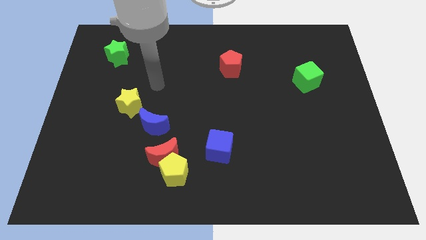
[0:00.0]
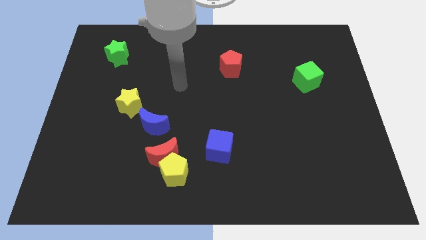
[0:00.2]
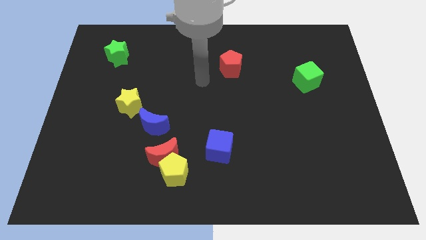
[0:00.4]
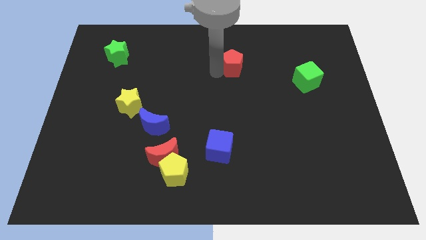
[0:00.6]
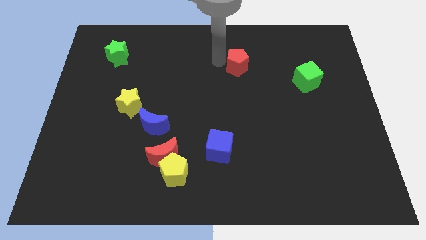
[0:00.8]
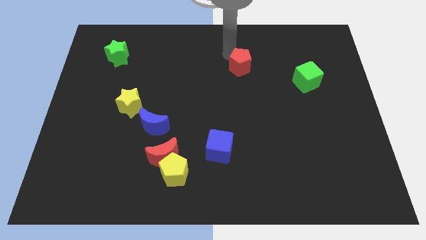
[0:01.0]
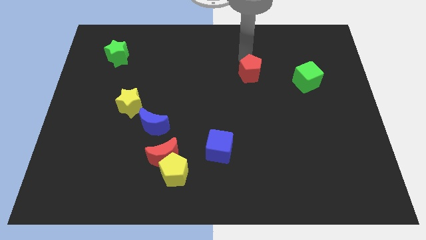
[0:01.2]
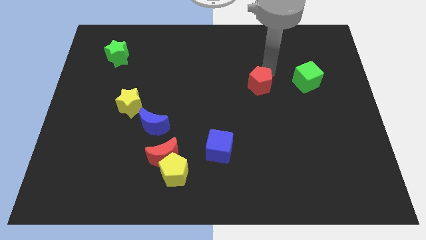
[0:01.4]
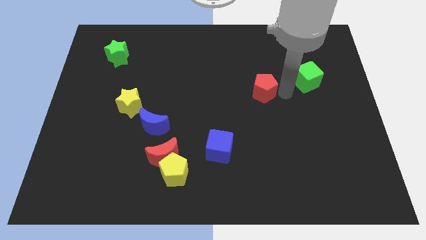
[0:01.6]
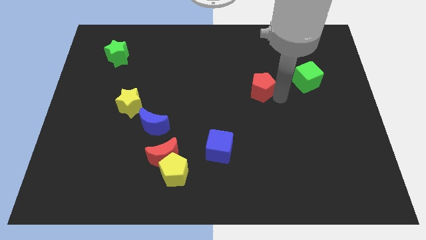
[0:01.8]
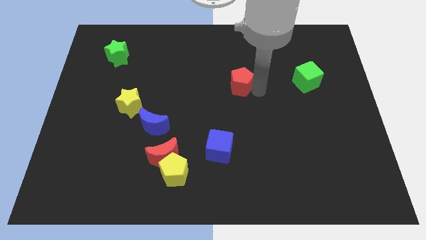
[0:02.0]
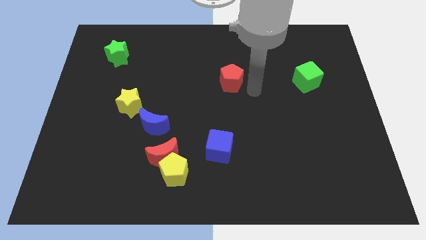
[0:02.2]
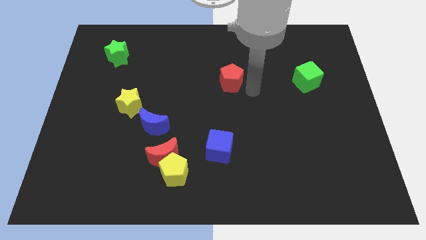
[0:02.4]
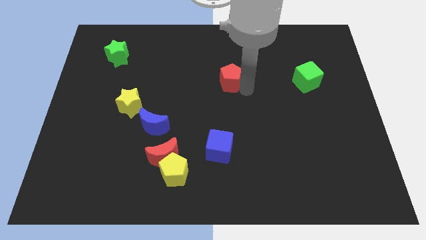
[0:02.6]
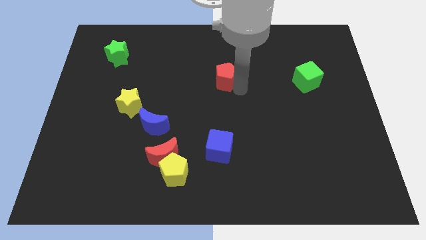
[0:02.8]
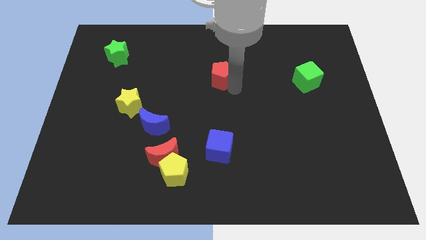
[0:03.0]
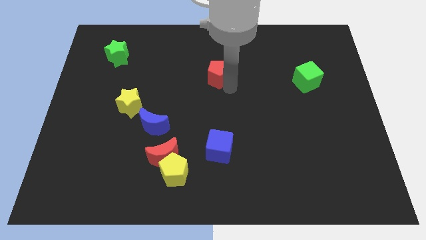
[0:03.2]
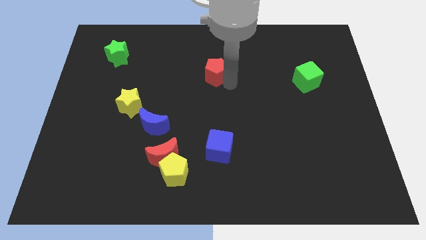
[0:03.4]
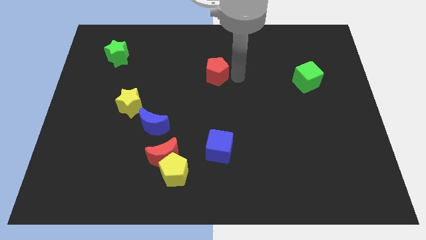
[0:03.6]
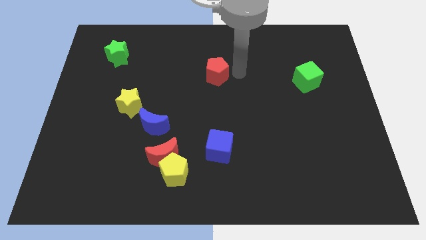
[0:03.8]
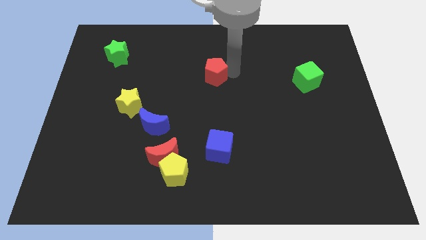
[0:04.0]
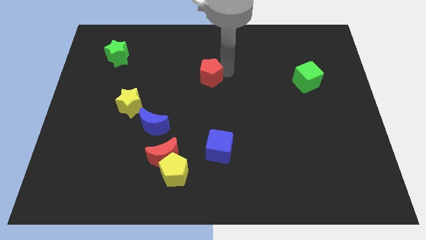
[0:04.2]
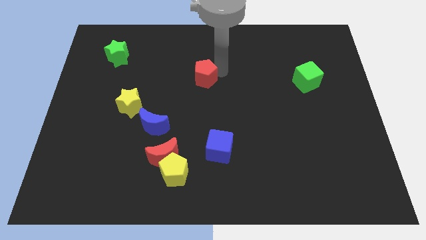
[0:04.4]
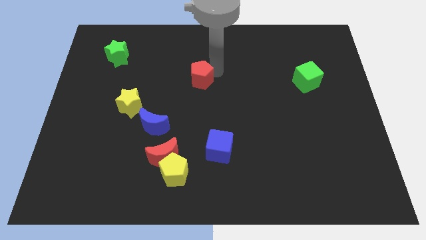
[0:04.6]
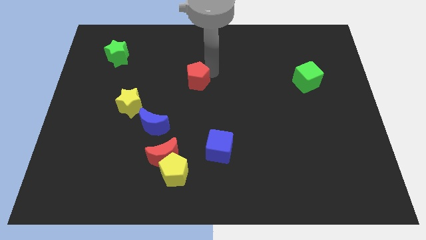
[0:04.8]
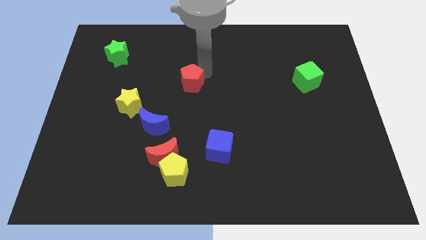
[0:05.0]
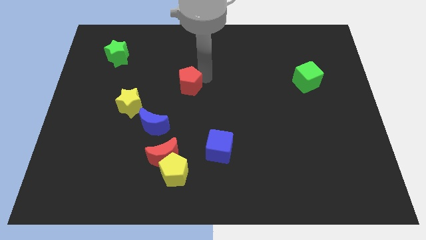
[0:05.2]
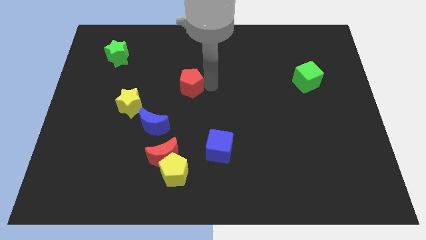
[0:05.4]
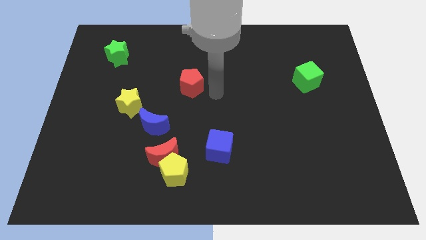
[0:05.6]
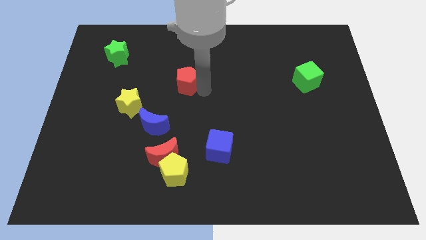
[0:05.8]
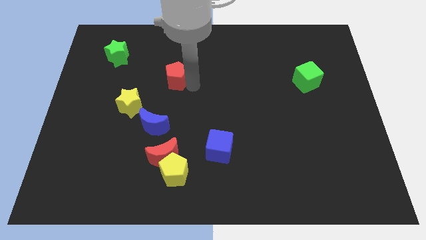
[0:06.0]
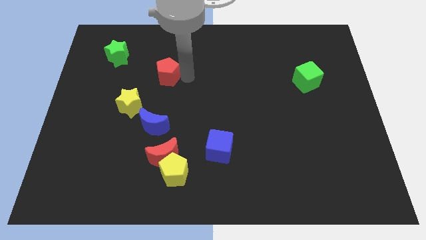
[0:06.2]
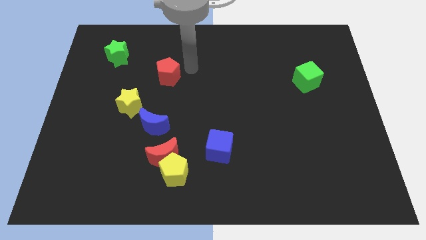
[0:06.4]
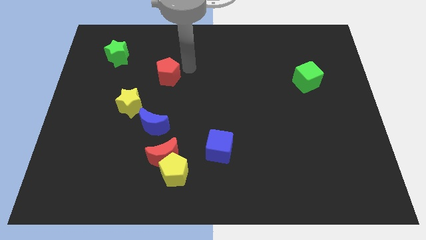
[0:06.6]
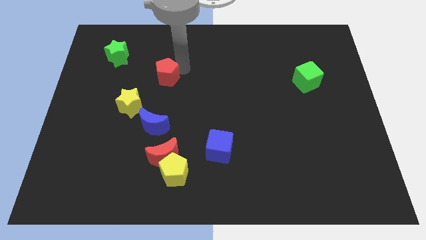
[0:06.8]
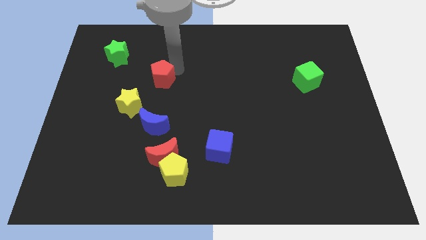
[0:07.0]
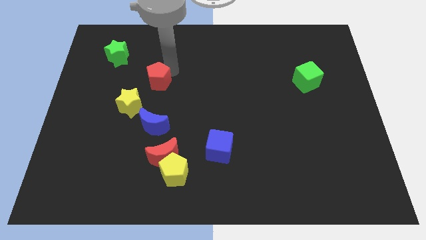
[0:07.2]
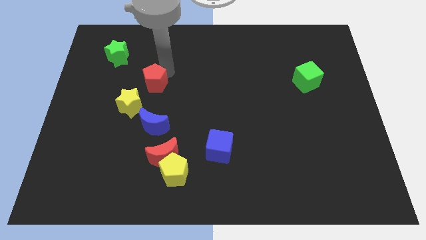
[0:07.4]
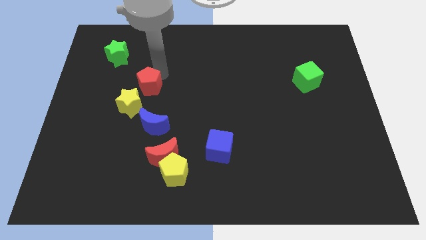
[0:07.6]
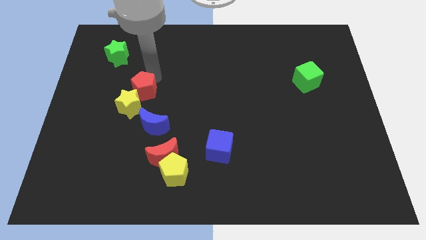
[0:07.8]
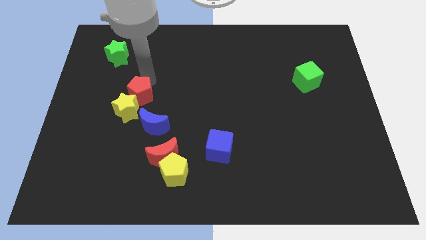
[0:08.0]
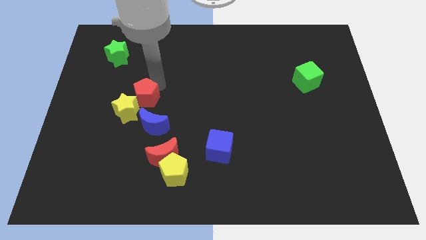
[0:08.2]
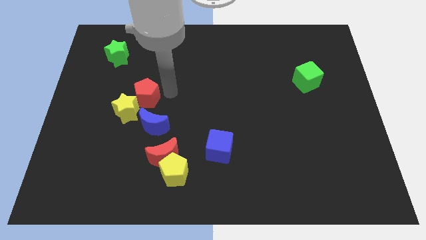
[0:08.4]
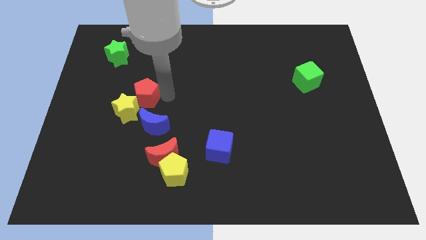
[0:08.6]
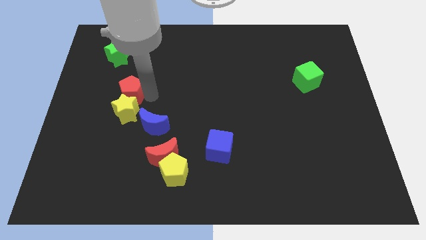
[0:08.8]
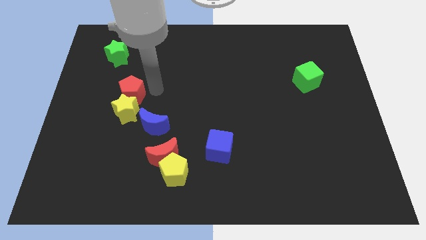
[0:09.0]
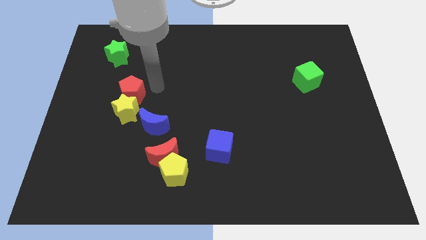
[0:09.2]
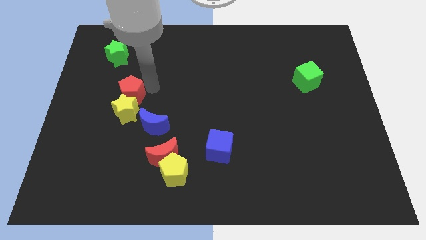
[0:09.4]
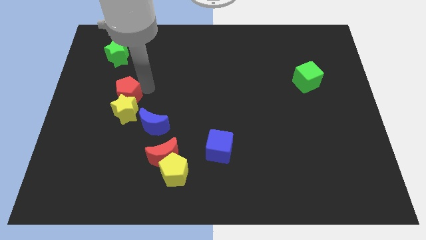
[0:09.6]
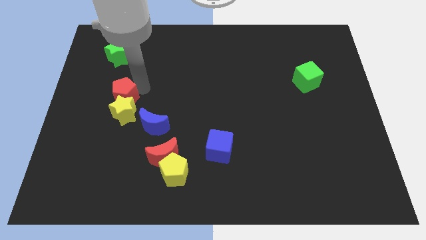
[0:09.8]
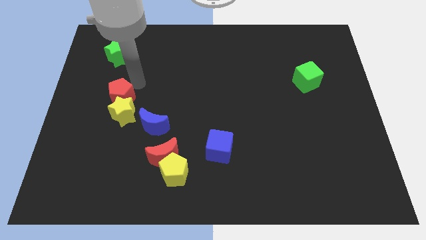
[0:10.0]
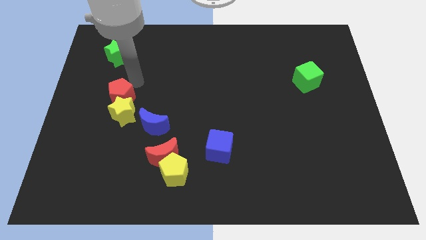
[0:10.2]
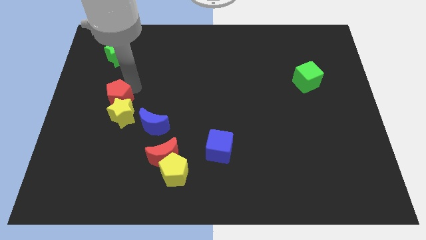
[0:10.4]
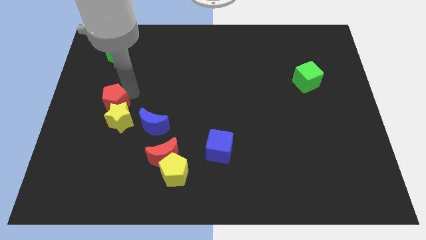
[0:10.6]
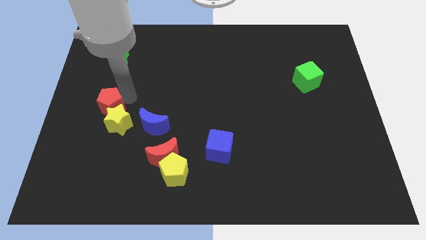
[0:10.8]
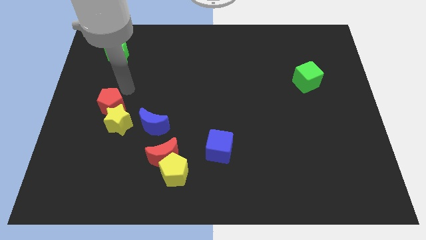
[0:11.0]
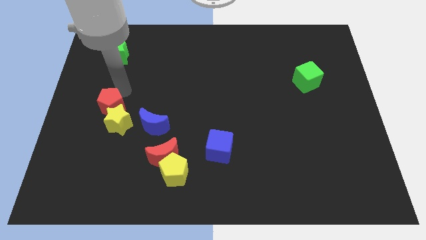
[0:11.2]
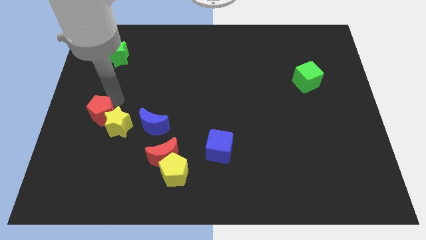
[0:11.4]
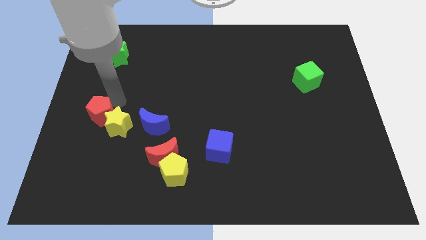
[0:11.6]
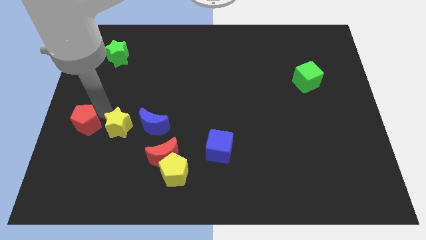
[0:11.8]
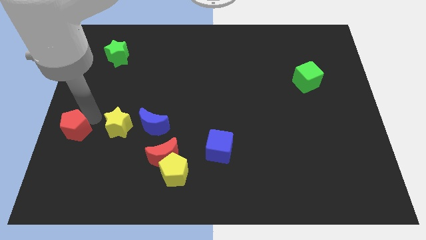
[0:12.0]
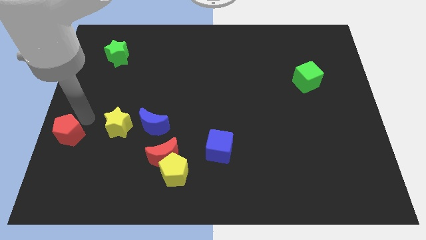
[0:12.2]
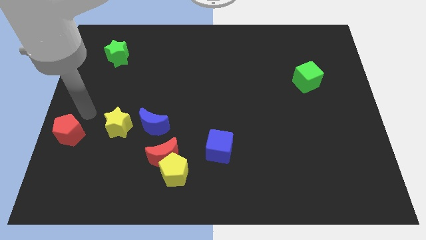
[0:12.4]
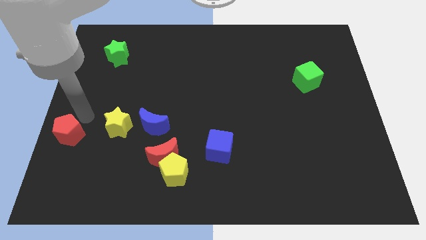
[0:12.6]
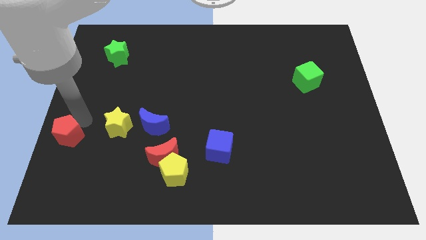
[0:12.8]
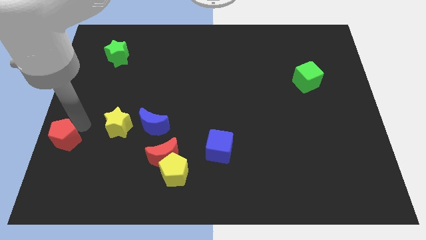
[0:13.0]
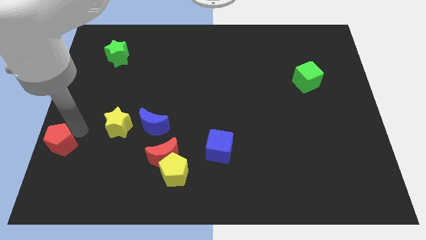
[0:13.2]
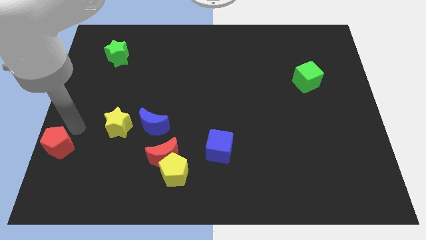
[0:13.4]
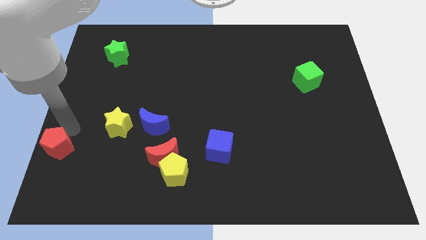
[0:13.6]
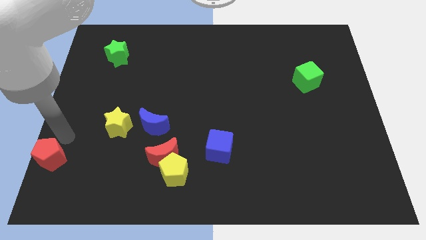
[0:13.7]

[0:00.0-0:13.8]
slide the red pentagon to the bottom left

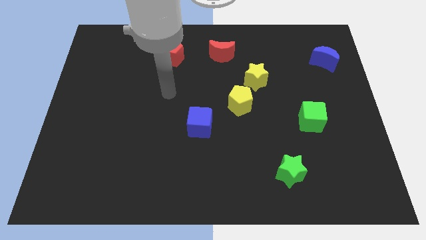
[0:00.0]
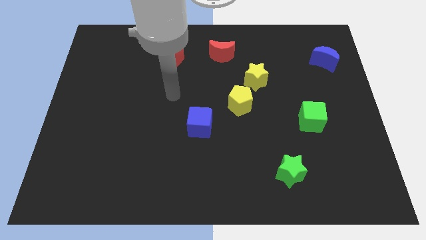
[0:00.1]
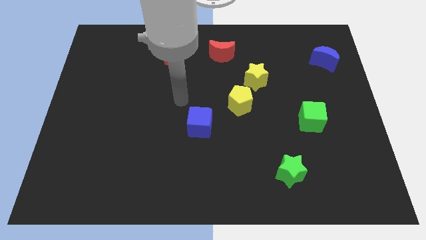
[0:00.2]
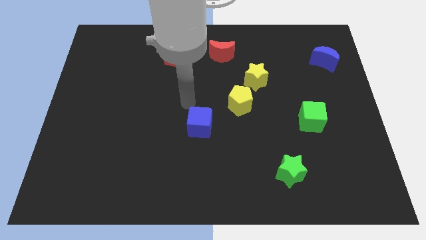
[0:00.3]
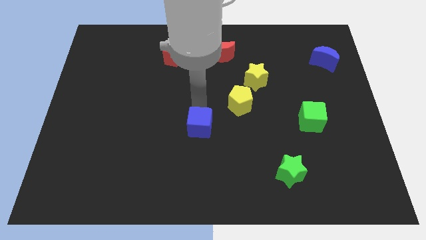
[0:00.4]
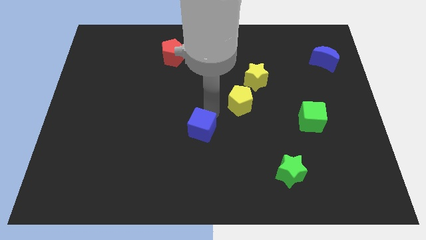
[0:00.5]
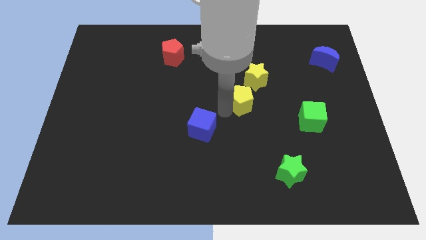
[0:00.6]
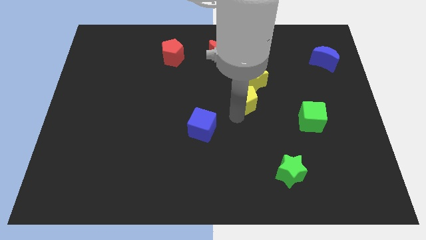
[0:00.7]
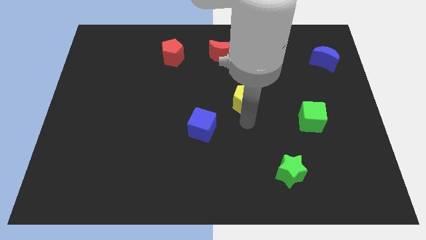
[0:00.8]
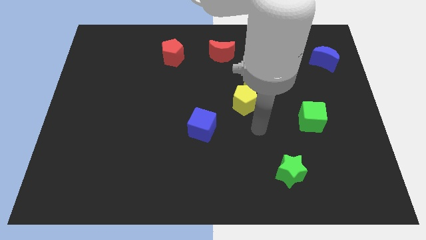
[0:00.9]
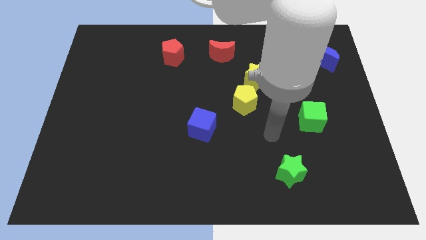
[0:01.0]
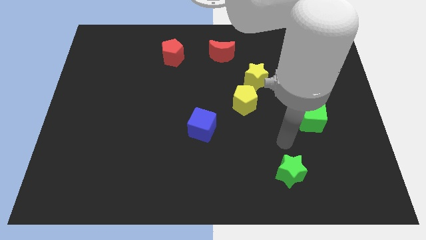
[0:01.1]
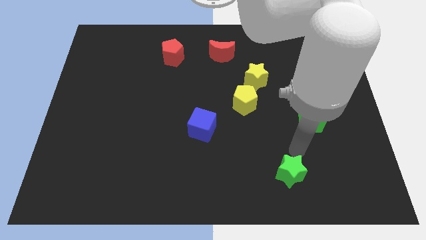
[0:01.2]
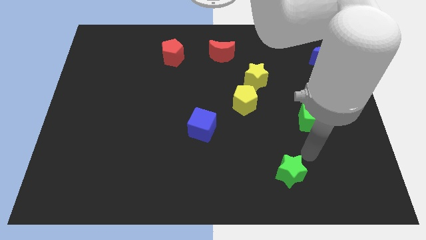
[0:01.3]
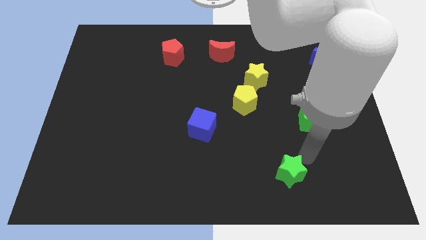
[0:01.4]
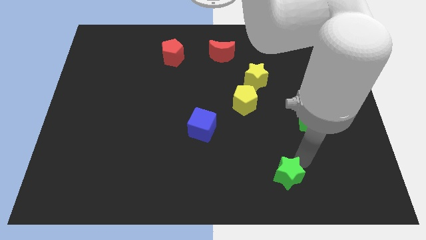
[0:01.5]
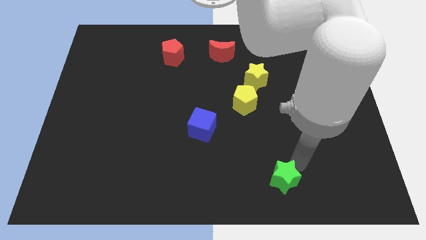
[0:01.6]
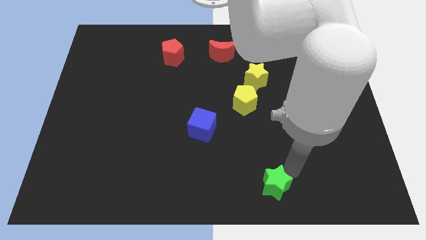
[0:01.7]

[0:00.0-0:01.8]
move the green star to the bottom side

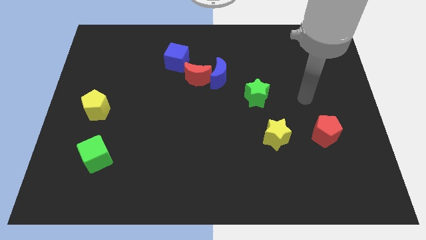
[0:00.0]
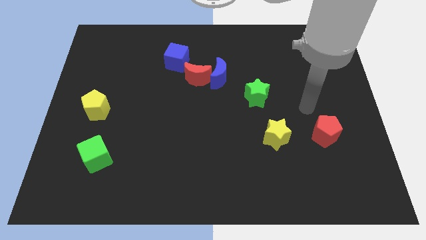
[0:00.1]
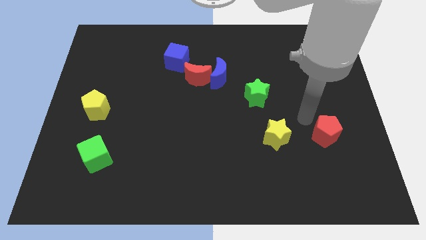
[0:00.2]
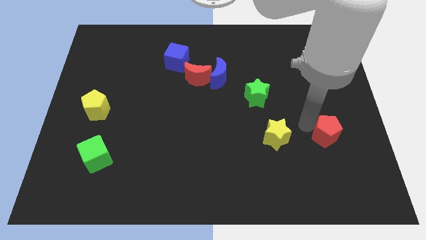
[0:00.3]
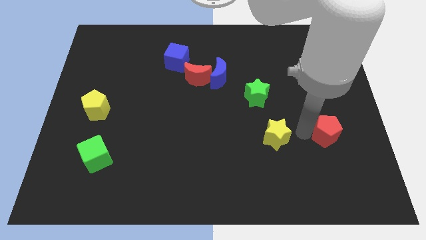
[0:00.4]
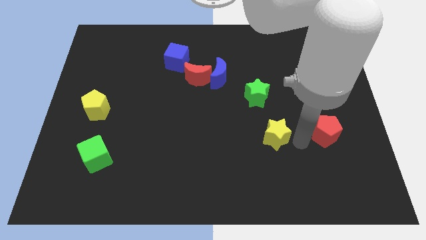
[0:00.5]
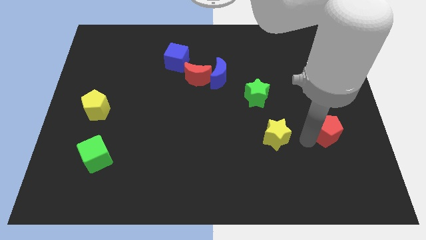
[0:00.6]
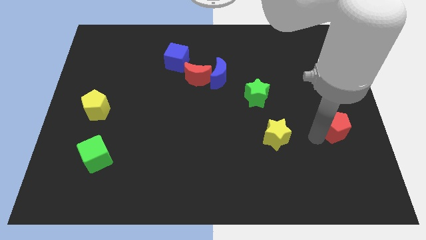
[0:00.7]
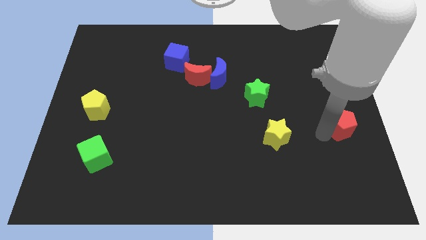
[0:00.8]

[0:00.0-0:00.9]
slide the red pentagon to the center right
